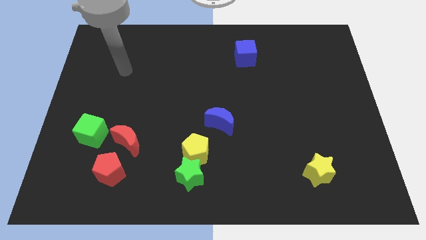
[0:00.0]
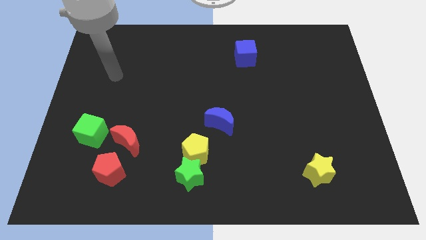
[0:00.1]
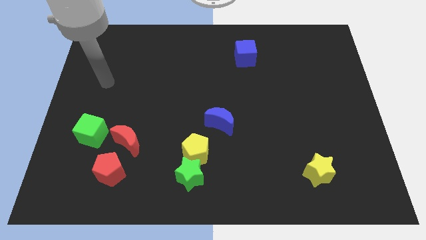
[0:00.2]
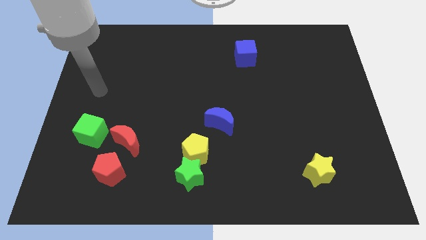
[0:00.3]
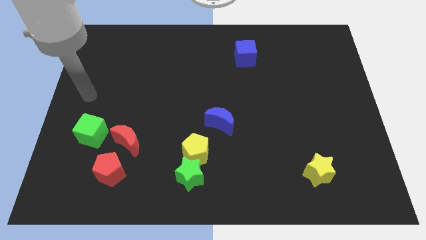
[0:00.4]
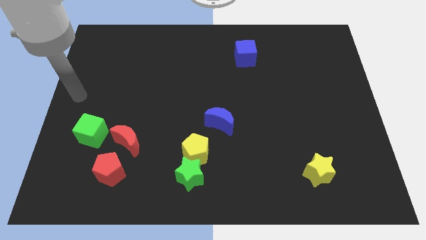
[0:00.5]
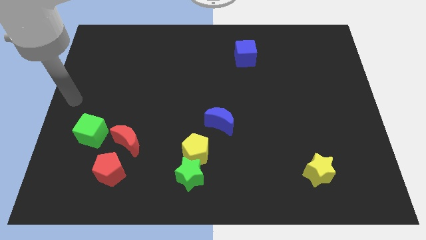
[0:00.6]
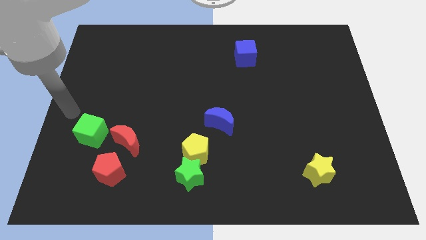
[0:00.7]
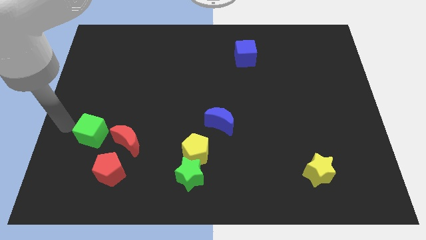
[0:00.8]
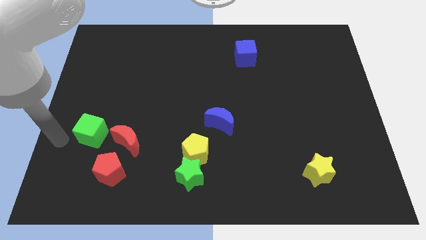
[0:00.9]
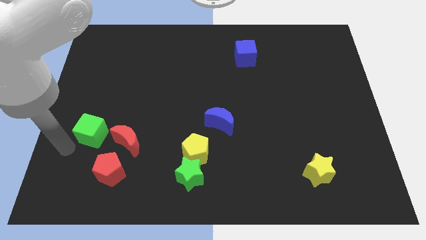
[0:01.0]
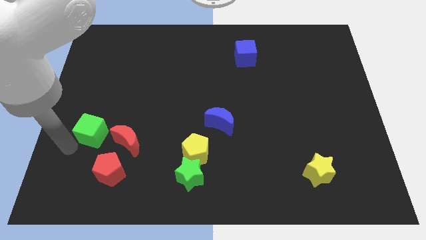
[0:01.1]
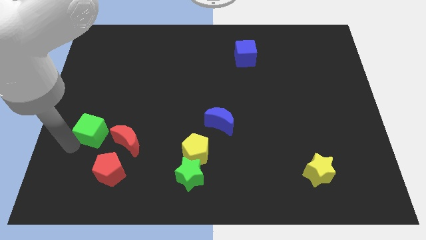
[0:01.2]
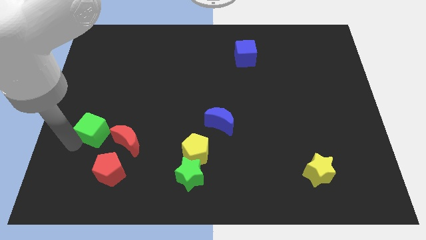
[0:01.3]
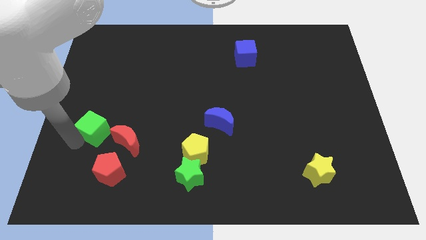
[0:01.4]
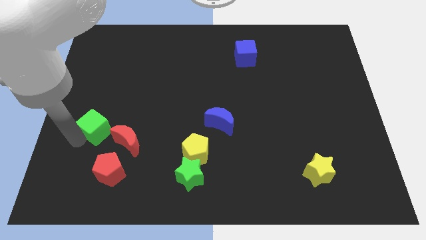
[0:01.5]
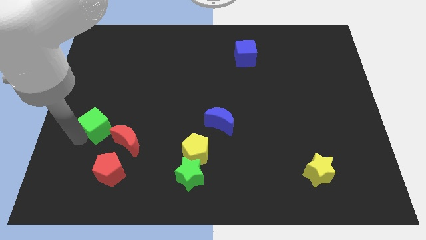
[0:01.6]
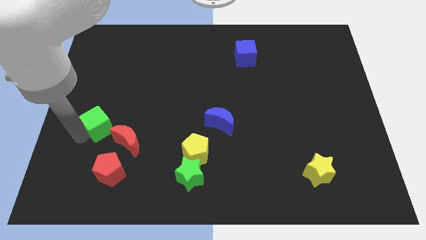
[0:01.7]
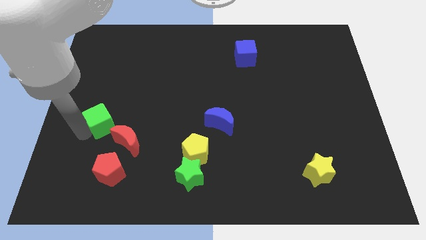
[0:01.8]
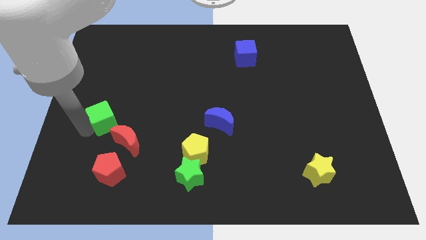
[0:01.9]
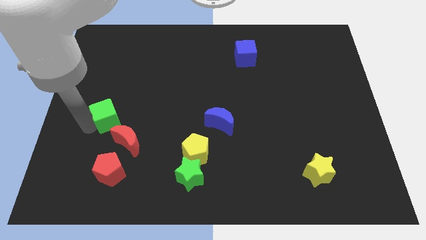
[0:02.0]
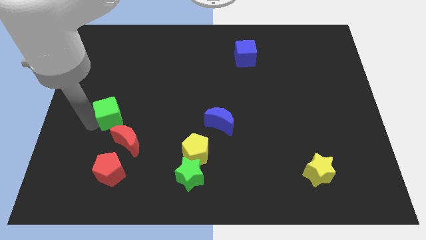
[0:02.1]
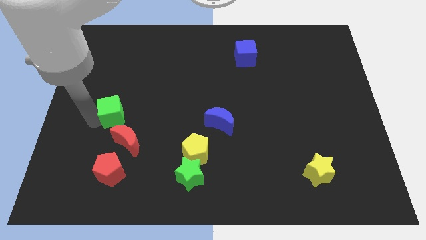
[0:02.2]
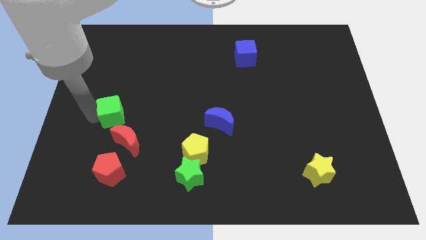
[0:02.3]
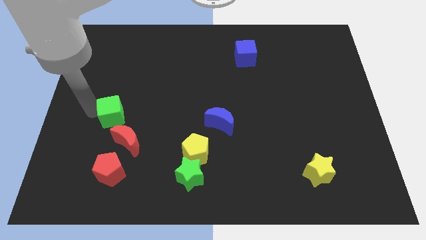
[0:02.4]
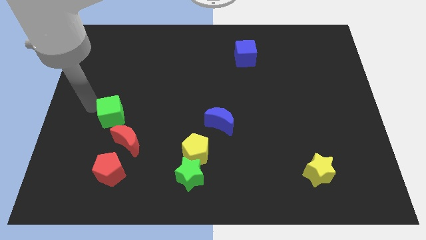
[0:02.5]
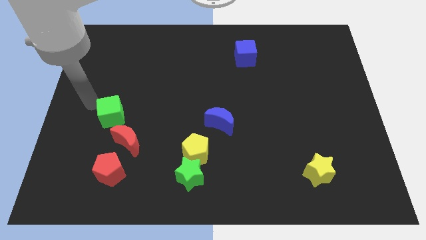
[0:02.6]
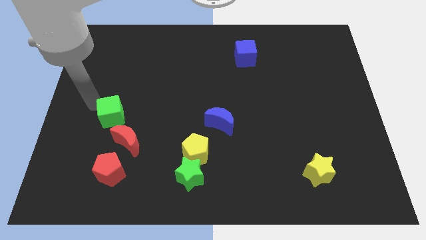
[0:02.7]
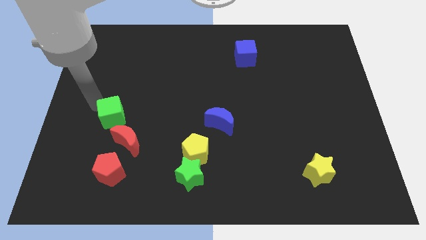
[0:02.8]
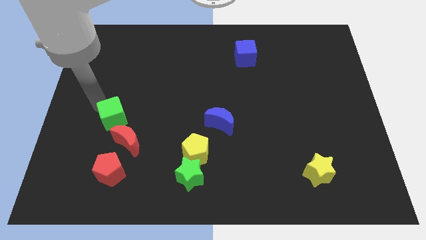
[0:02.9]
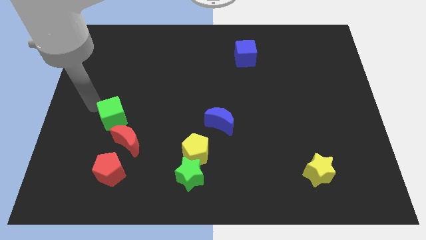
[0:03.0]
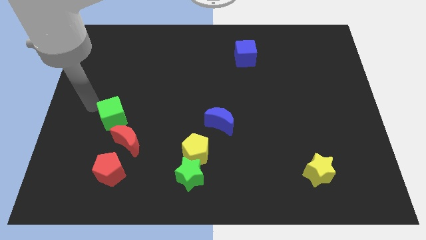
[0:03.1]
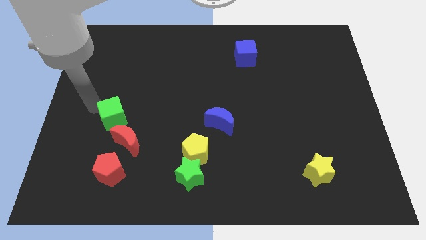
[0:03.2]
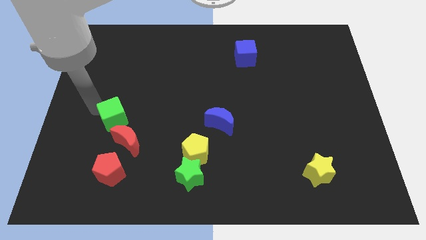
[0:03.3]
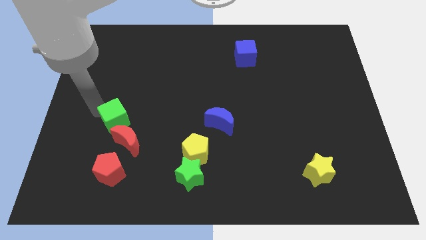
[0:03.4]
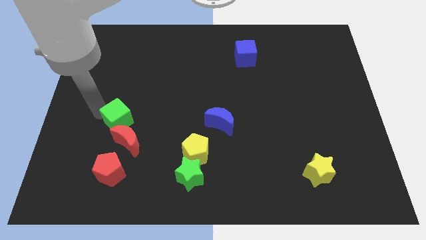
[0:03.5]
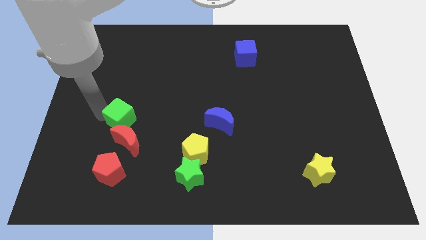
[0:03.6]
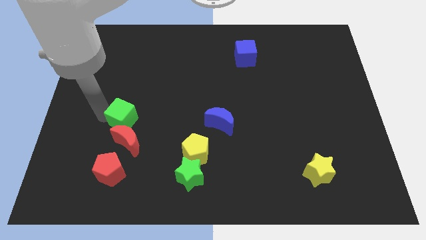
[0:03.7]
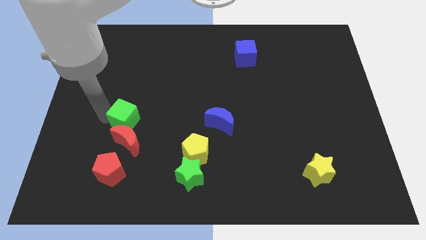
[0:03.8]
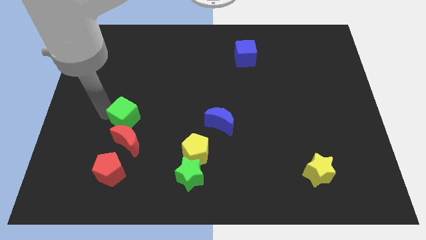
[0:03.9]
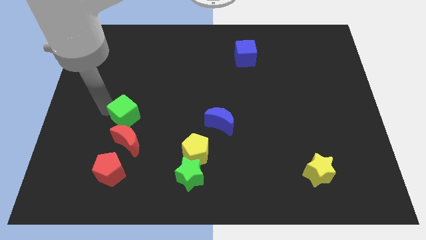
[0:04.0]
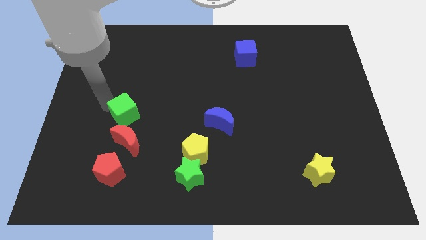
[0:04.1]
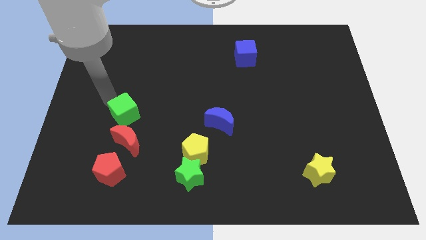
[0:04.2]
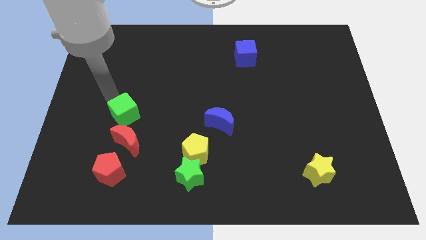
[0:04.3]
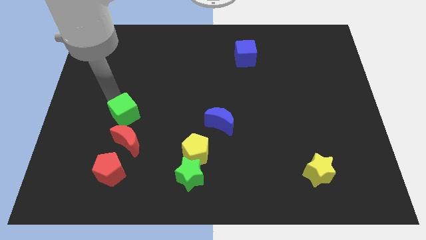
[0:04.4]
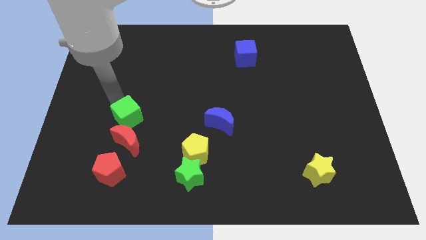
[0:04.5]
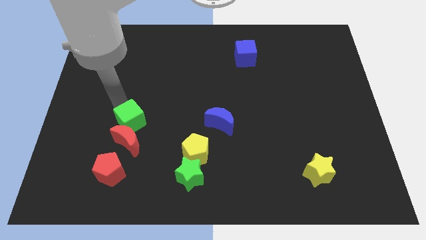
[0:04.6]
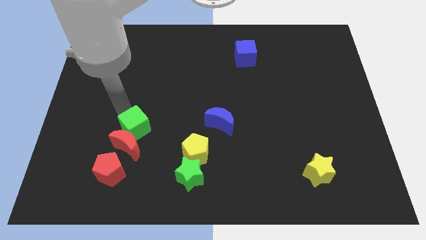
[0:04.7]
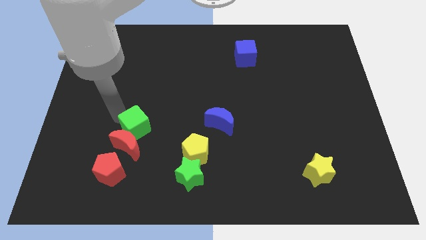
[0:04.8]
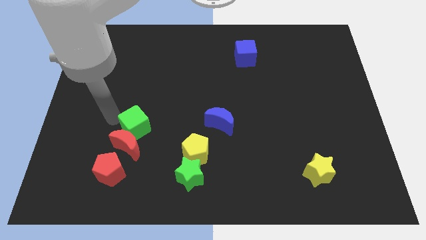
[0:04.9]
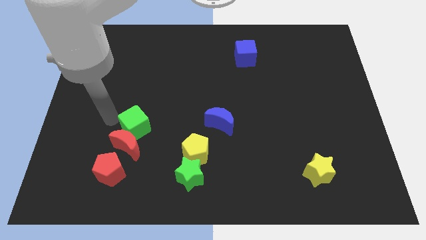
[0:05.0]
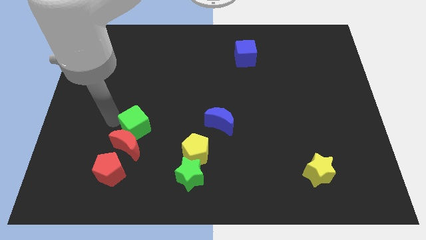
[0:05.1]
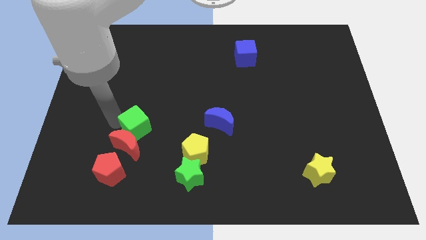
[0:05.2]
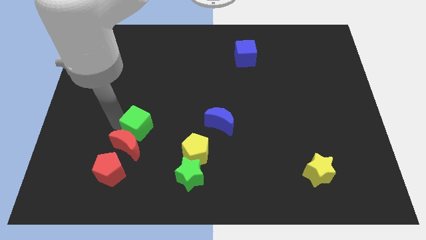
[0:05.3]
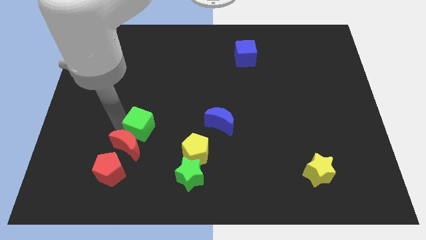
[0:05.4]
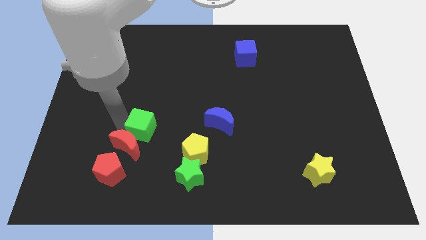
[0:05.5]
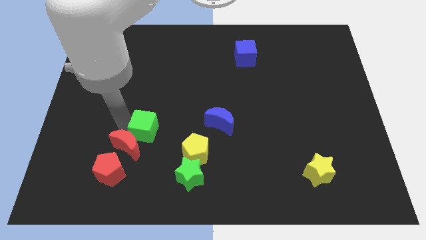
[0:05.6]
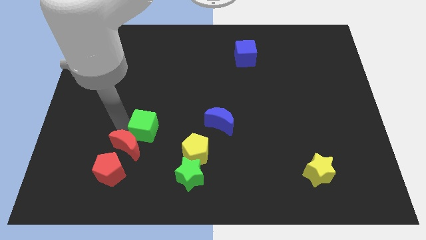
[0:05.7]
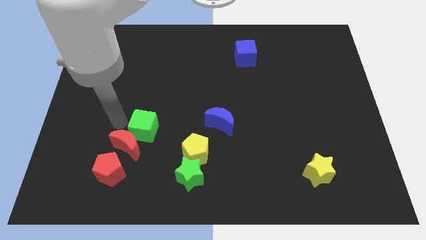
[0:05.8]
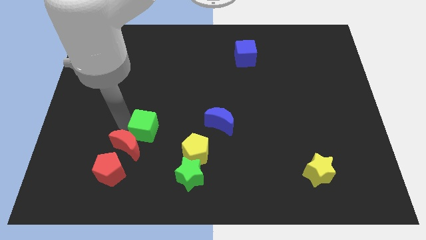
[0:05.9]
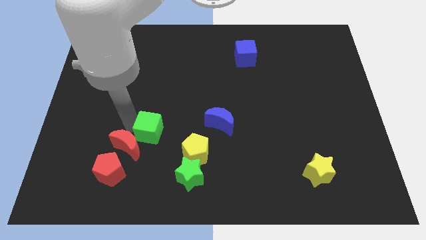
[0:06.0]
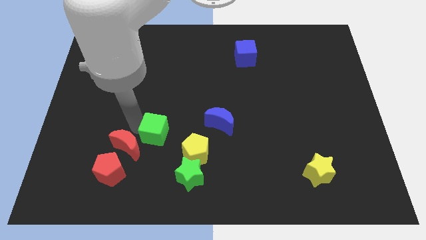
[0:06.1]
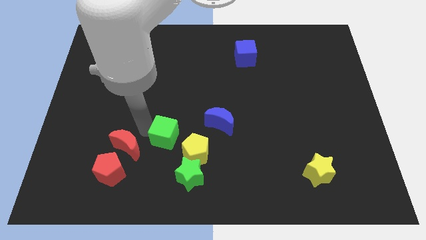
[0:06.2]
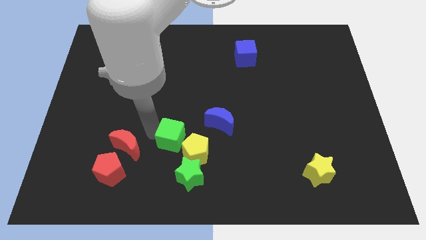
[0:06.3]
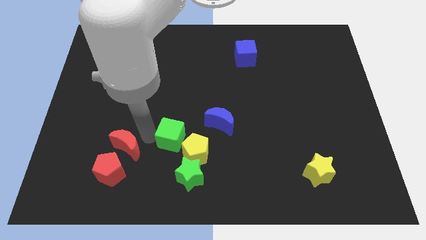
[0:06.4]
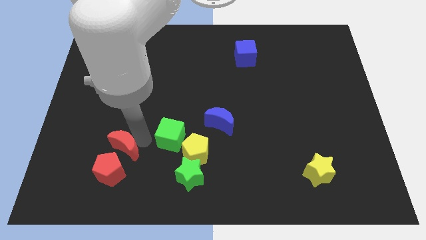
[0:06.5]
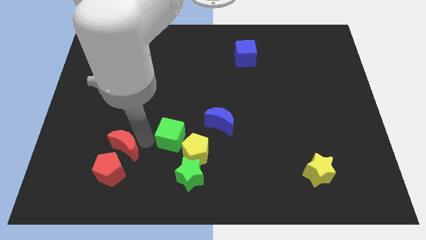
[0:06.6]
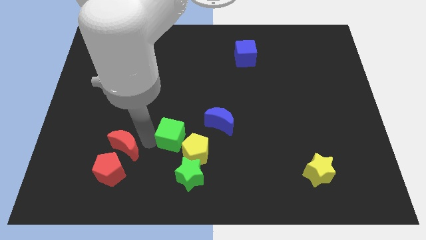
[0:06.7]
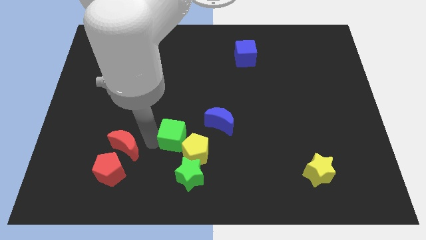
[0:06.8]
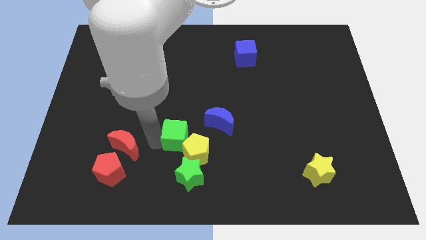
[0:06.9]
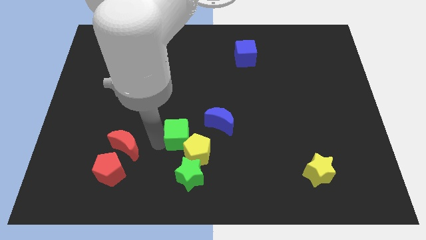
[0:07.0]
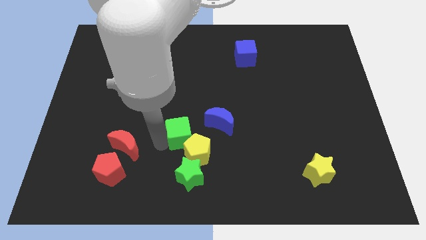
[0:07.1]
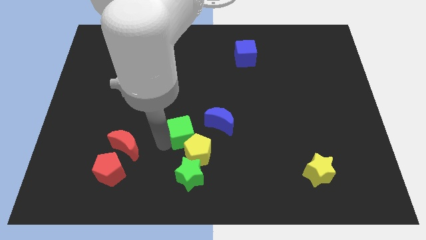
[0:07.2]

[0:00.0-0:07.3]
push the green cube to the right

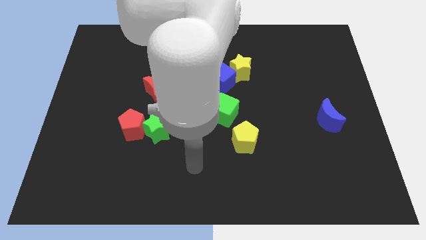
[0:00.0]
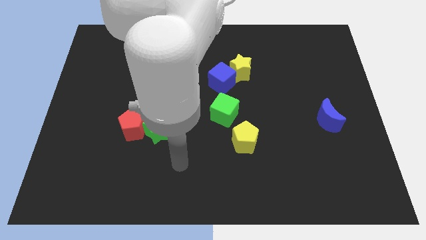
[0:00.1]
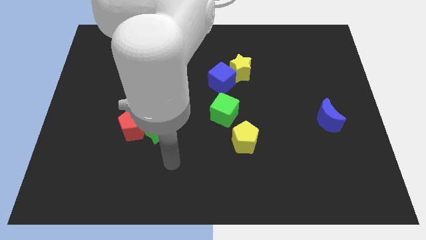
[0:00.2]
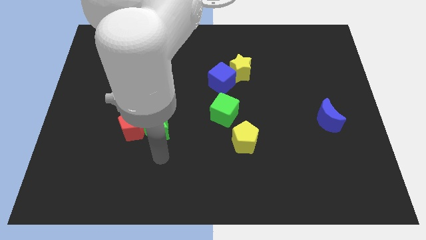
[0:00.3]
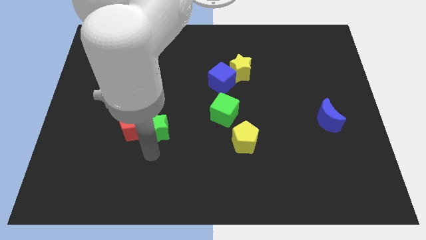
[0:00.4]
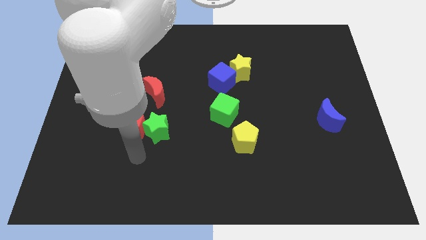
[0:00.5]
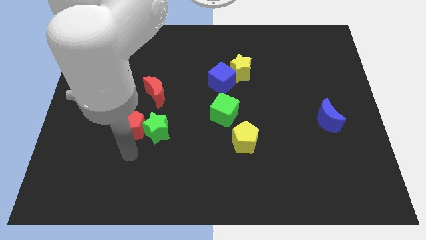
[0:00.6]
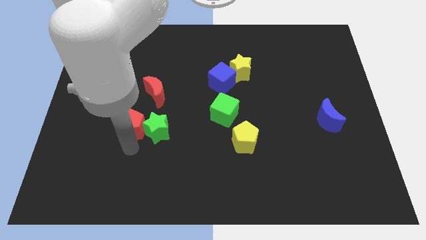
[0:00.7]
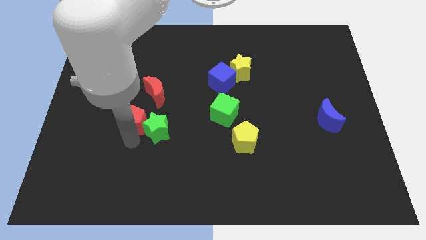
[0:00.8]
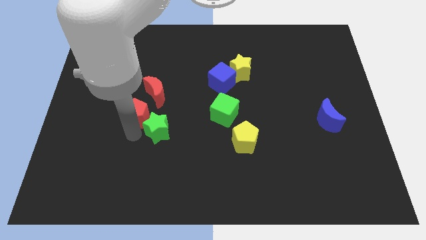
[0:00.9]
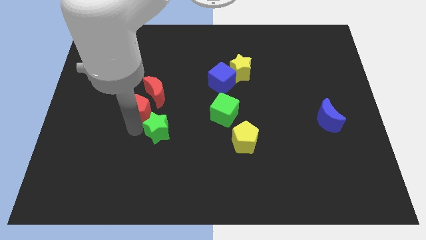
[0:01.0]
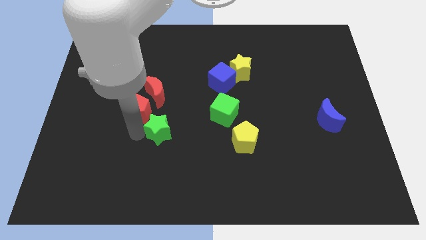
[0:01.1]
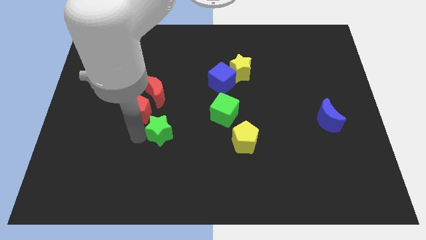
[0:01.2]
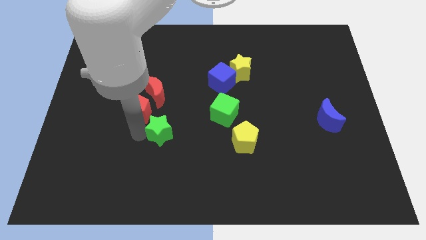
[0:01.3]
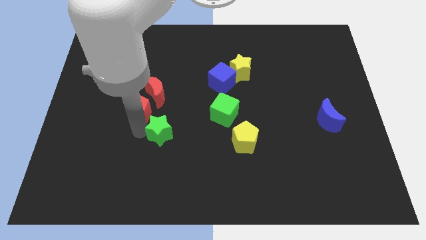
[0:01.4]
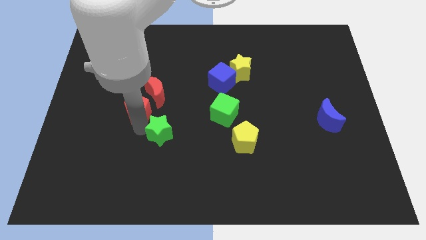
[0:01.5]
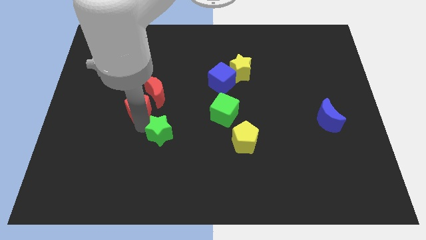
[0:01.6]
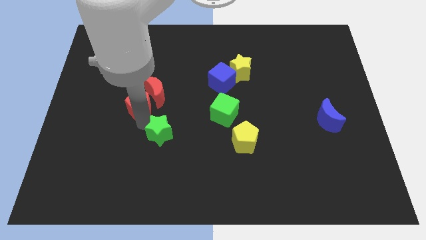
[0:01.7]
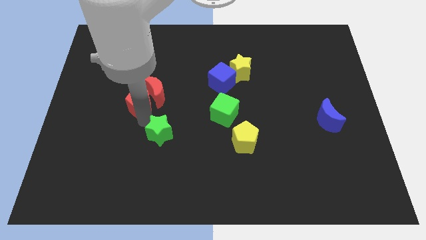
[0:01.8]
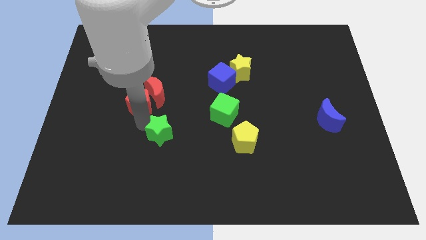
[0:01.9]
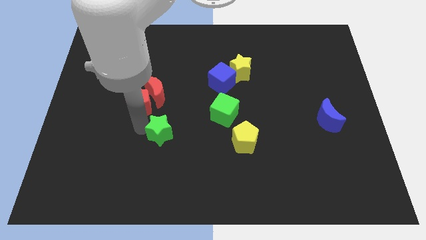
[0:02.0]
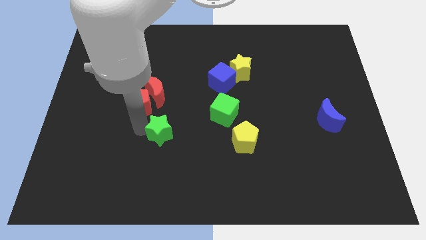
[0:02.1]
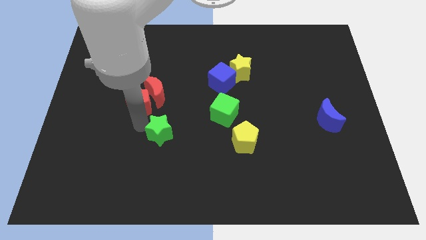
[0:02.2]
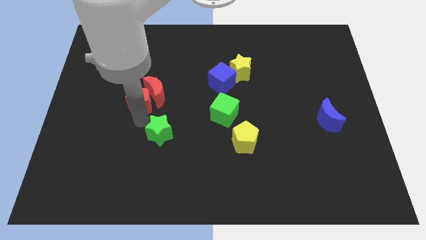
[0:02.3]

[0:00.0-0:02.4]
move the red pentagon somewhat upwards
